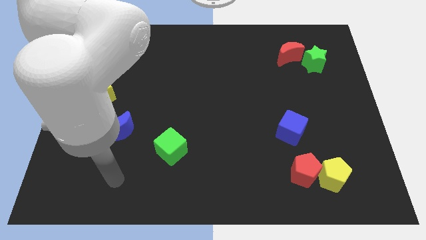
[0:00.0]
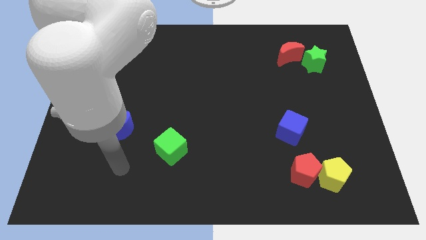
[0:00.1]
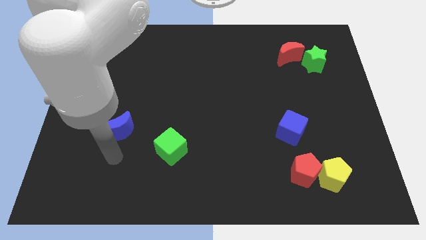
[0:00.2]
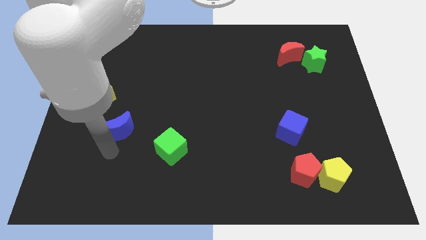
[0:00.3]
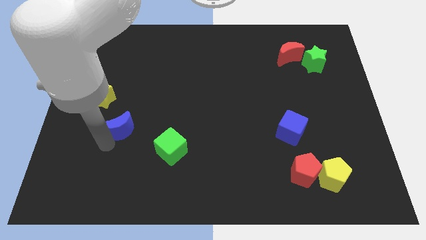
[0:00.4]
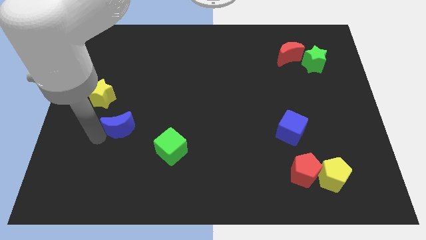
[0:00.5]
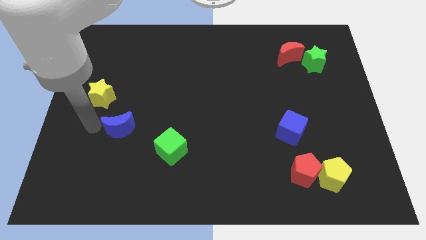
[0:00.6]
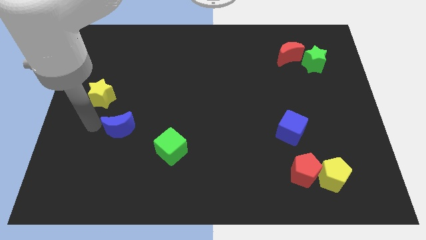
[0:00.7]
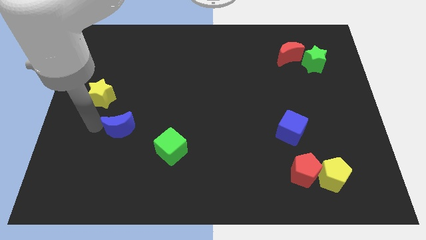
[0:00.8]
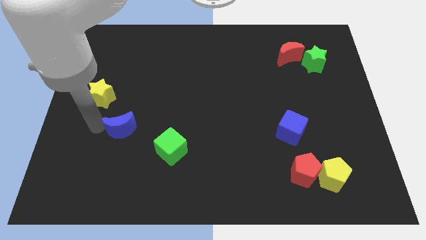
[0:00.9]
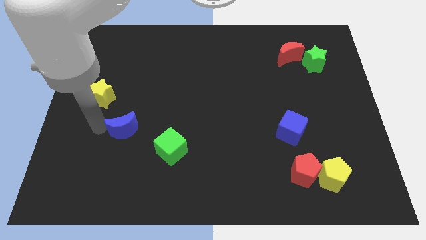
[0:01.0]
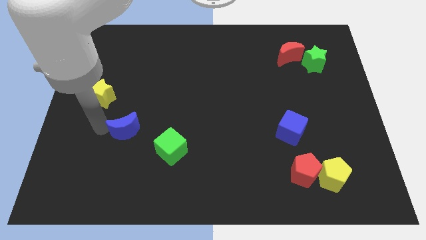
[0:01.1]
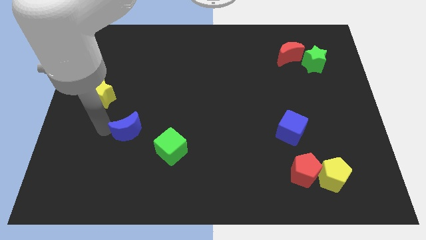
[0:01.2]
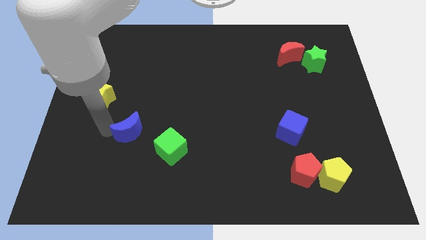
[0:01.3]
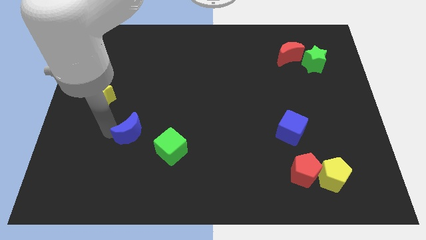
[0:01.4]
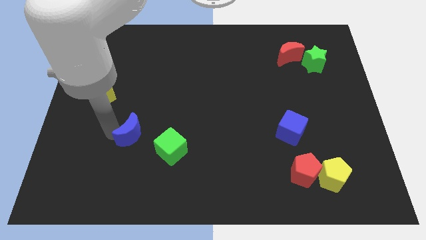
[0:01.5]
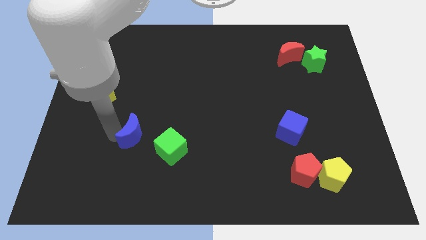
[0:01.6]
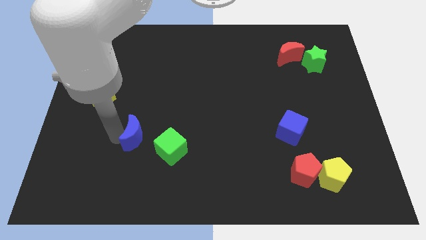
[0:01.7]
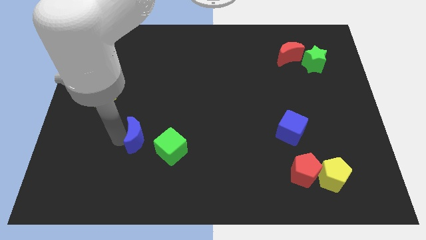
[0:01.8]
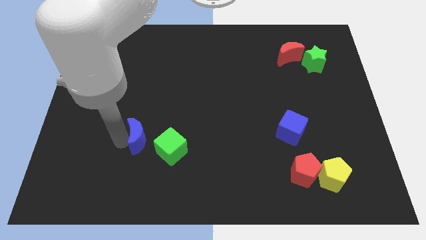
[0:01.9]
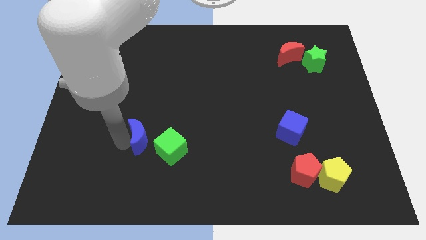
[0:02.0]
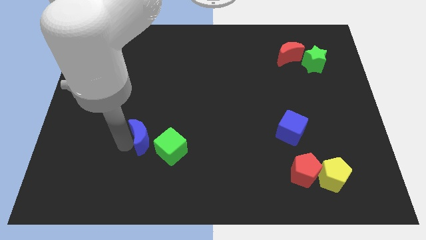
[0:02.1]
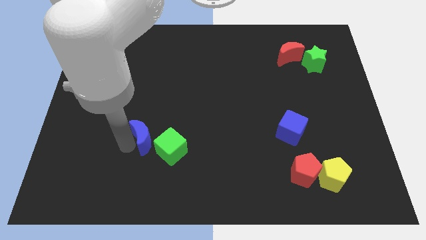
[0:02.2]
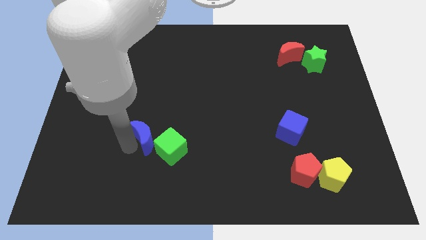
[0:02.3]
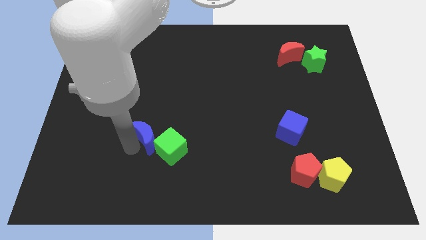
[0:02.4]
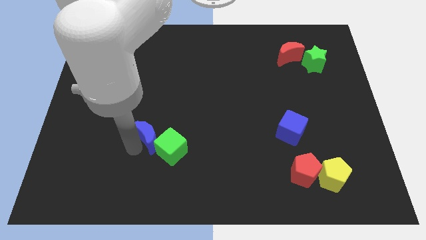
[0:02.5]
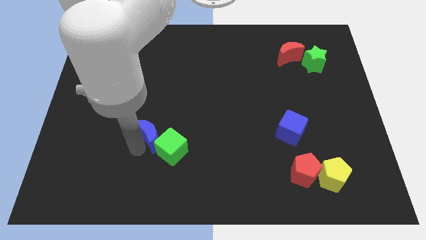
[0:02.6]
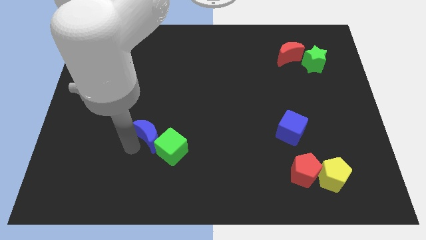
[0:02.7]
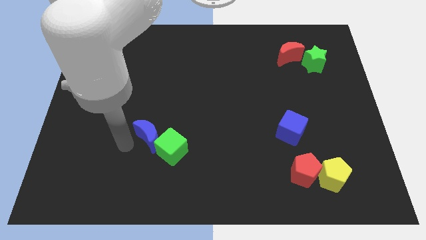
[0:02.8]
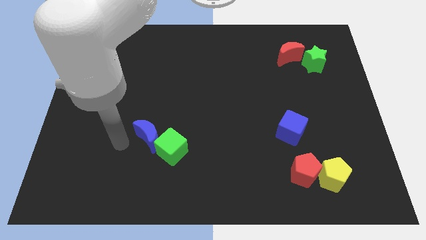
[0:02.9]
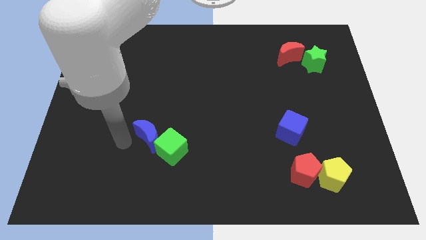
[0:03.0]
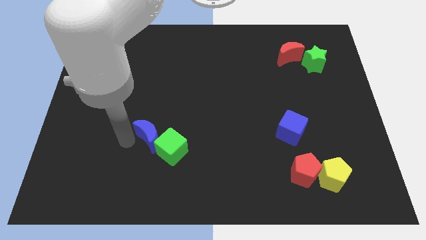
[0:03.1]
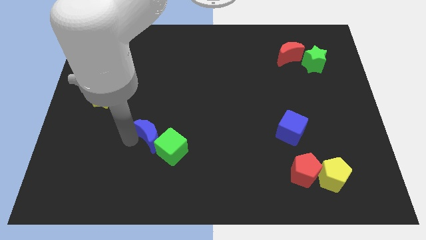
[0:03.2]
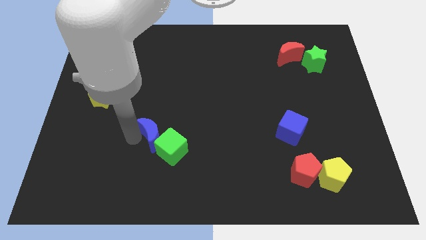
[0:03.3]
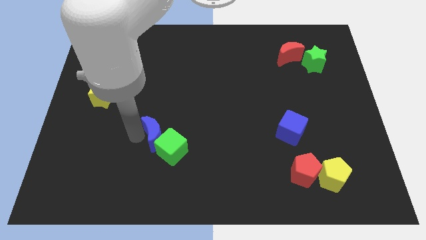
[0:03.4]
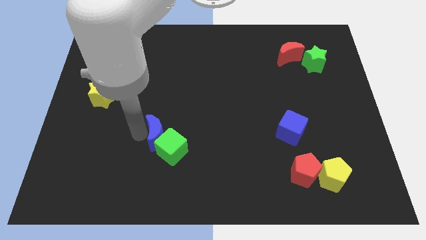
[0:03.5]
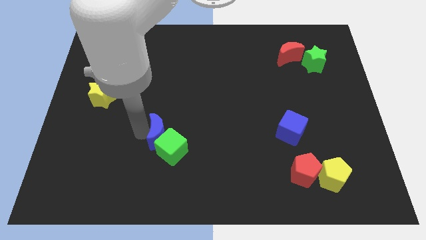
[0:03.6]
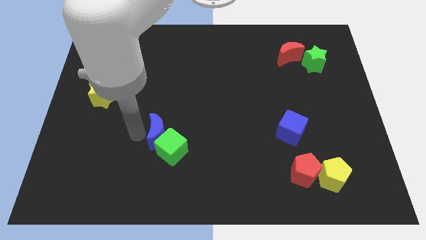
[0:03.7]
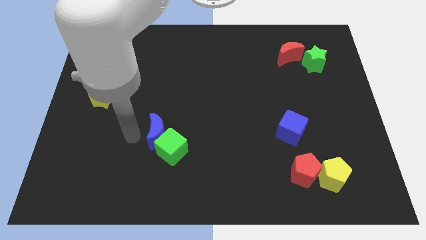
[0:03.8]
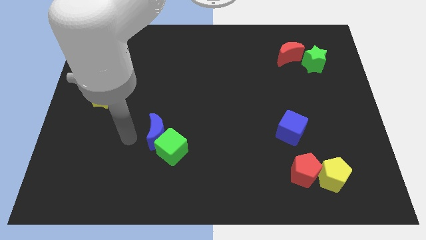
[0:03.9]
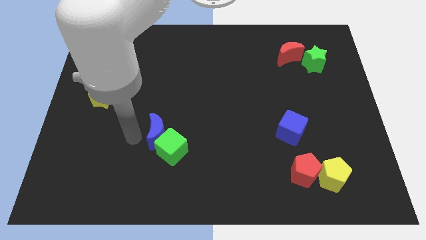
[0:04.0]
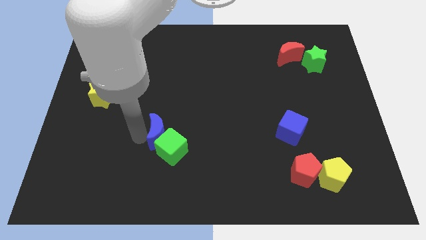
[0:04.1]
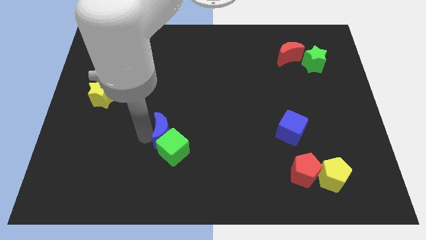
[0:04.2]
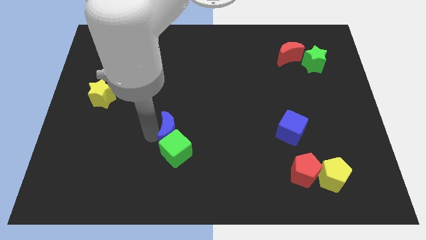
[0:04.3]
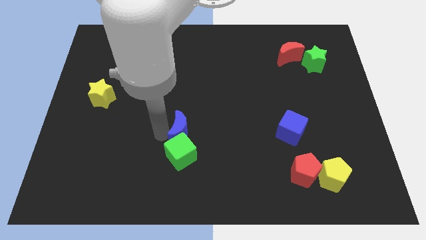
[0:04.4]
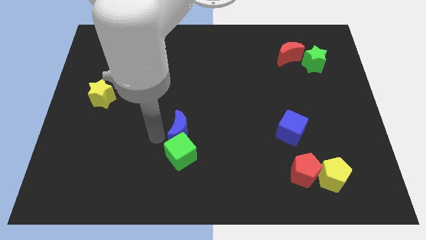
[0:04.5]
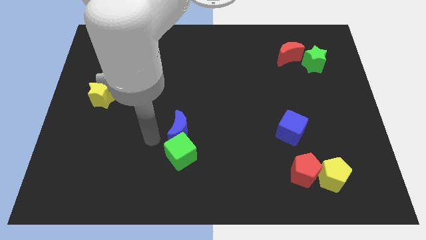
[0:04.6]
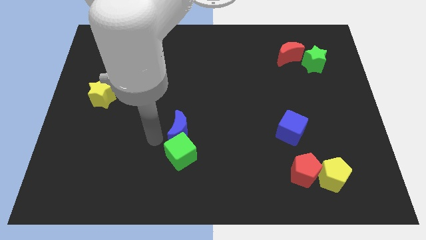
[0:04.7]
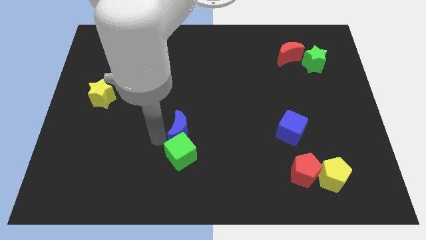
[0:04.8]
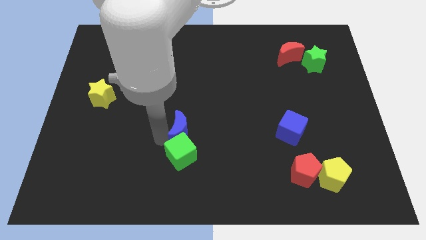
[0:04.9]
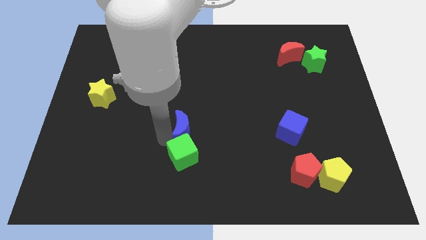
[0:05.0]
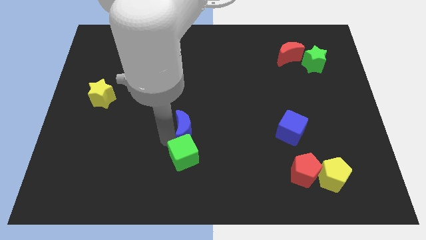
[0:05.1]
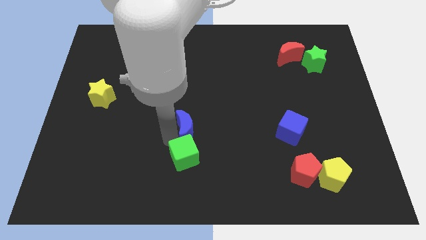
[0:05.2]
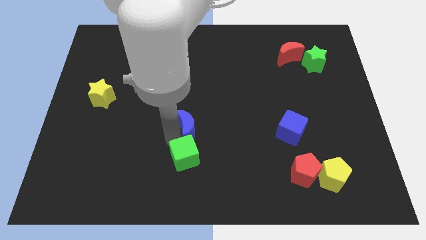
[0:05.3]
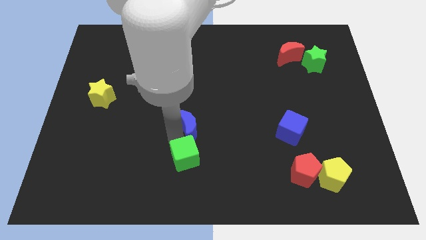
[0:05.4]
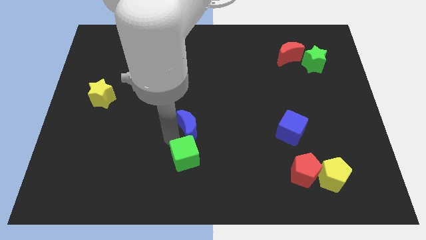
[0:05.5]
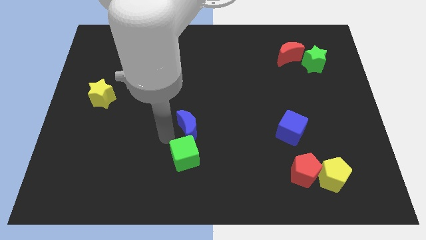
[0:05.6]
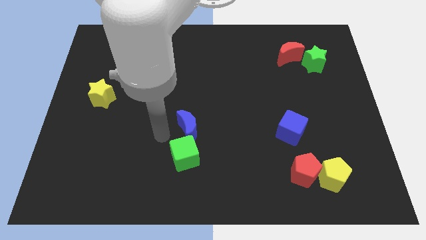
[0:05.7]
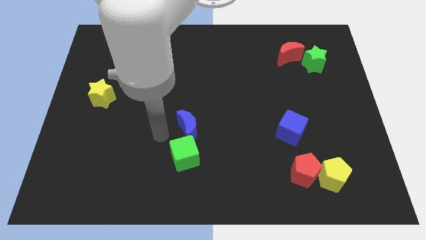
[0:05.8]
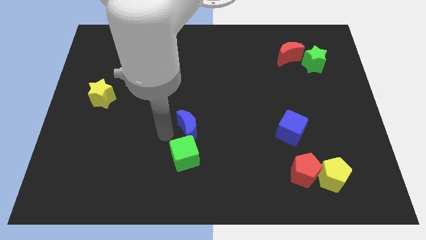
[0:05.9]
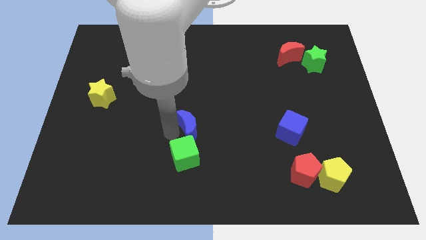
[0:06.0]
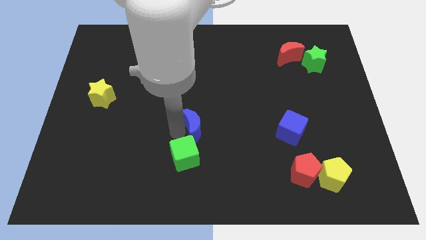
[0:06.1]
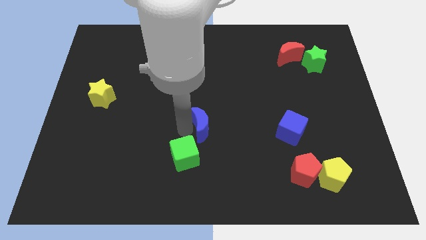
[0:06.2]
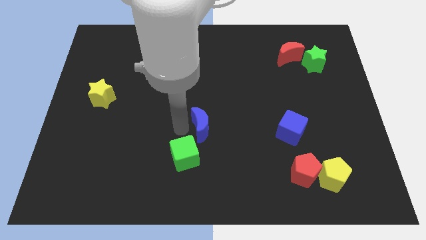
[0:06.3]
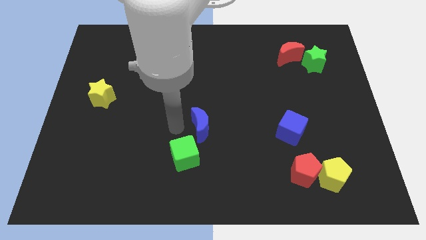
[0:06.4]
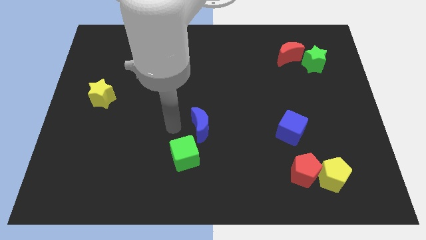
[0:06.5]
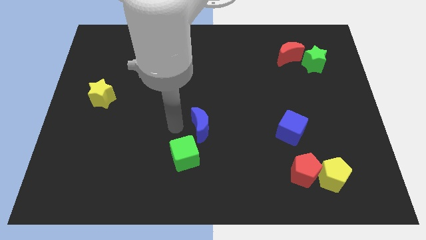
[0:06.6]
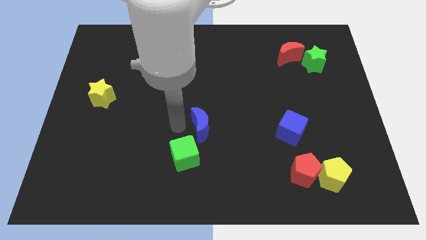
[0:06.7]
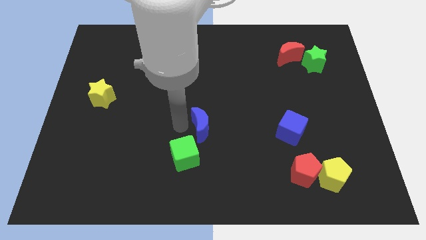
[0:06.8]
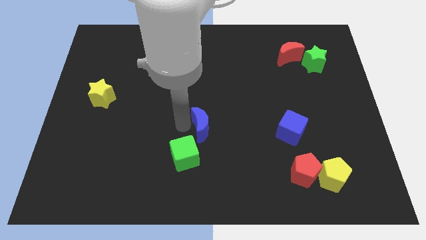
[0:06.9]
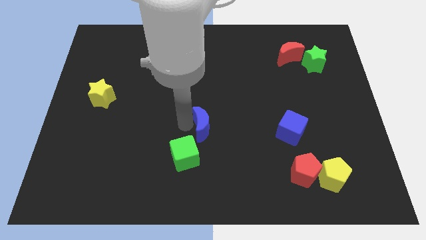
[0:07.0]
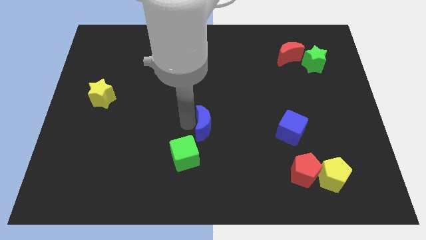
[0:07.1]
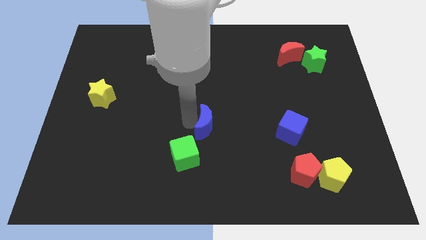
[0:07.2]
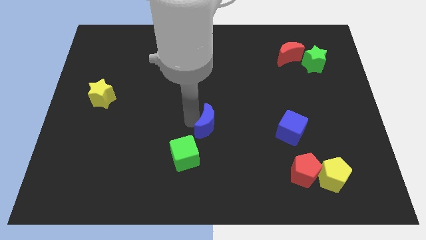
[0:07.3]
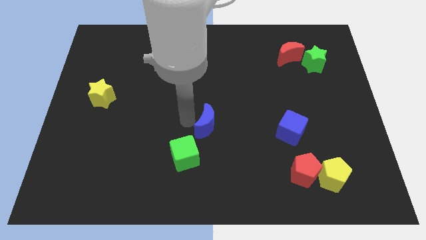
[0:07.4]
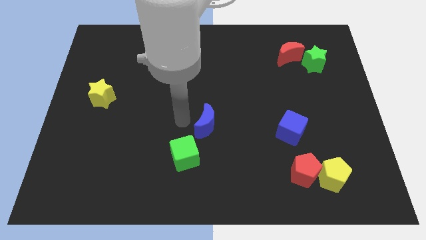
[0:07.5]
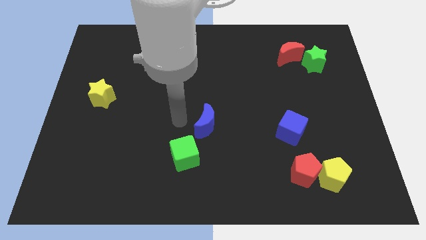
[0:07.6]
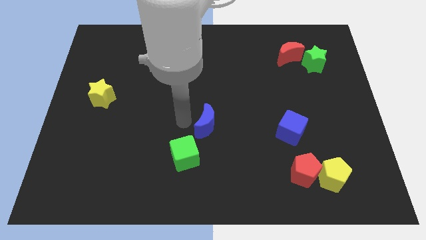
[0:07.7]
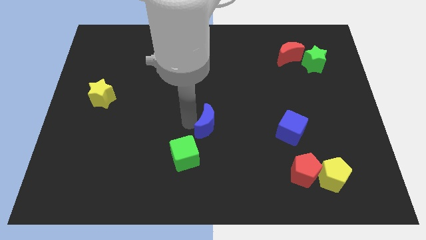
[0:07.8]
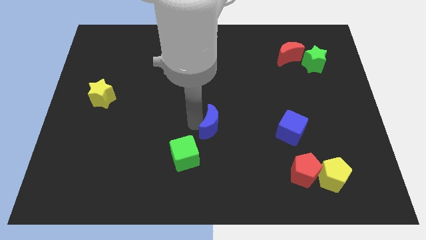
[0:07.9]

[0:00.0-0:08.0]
move the blue moon right
